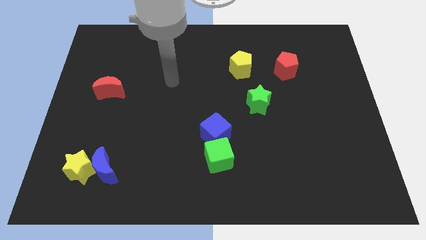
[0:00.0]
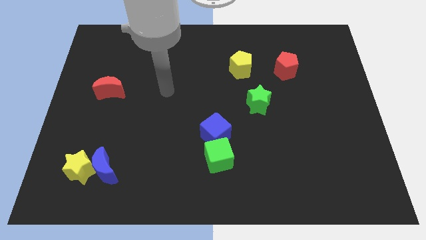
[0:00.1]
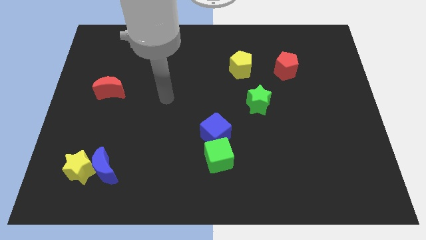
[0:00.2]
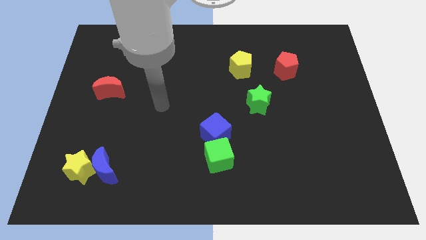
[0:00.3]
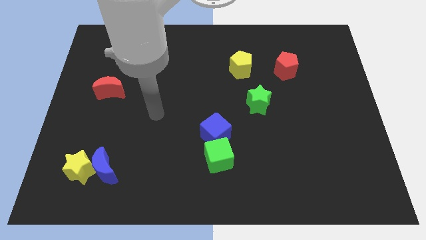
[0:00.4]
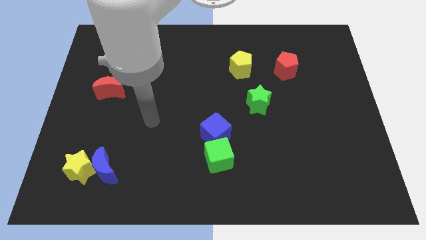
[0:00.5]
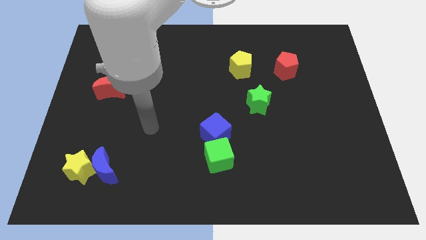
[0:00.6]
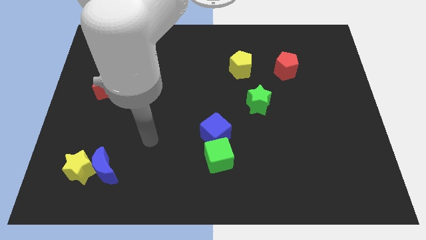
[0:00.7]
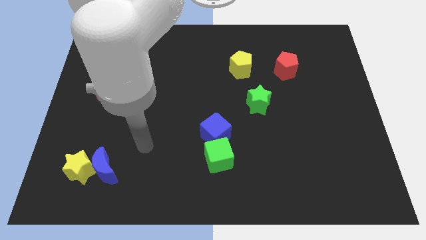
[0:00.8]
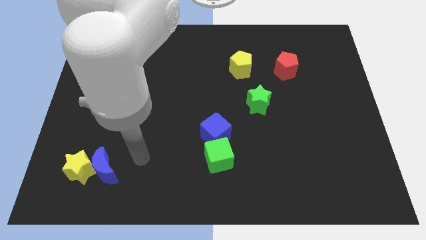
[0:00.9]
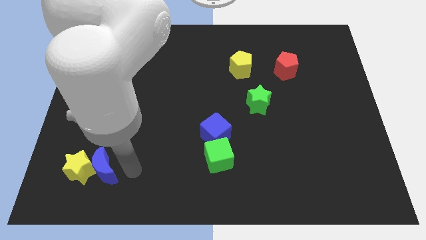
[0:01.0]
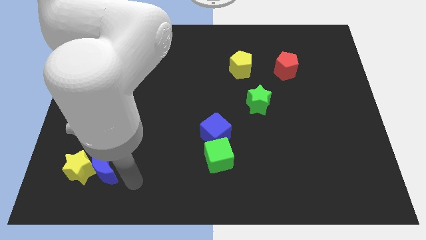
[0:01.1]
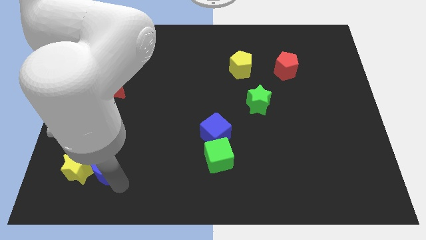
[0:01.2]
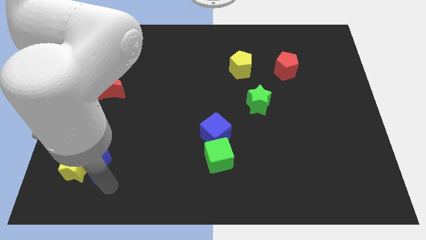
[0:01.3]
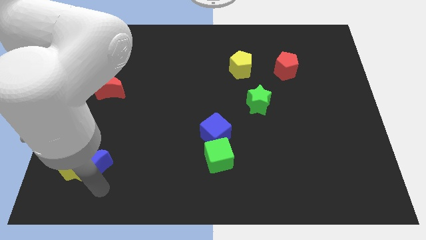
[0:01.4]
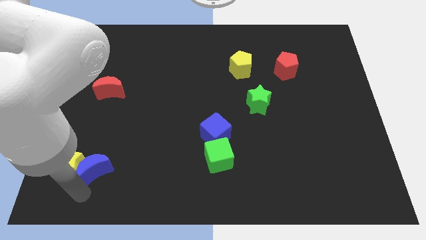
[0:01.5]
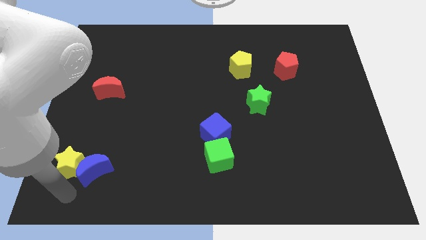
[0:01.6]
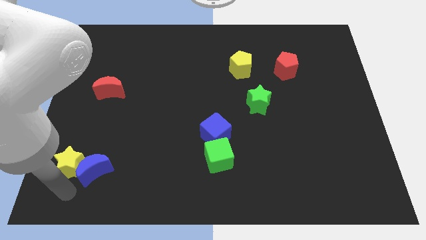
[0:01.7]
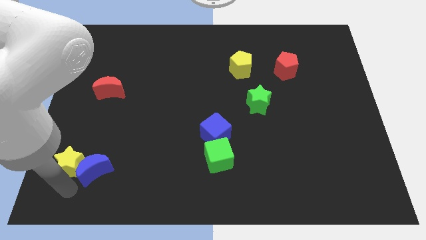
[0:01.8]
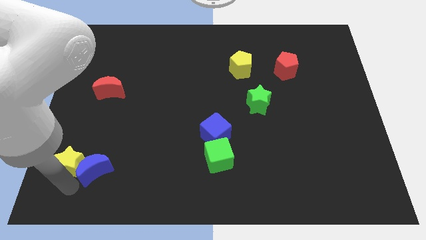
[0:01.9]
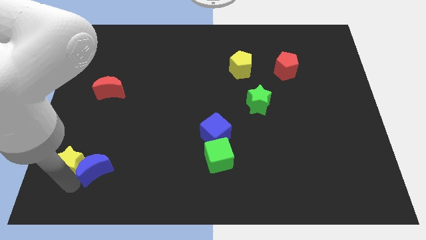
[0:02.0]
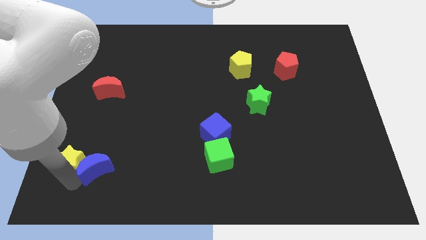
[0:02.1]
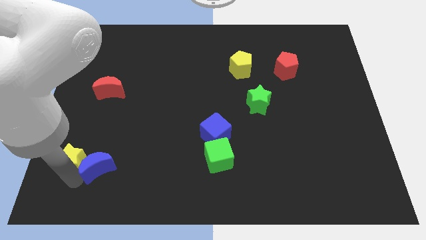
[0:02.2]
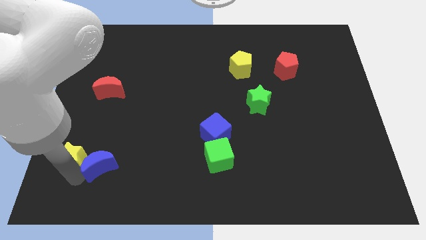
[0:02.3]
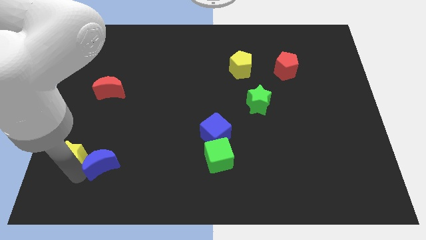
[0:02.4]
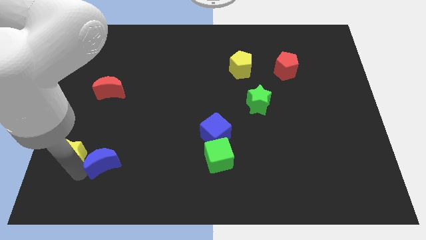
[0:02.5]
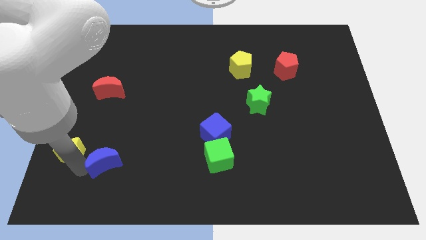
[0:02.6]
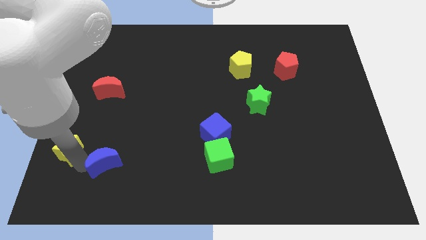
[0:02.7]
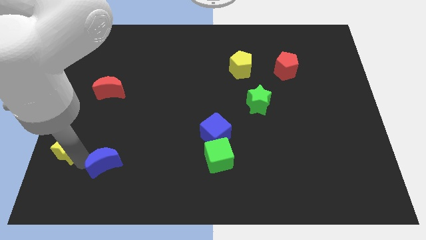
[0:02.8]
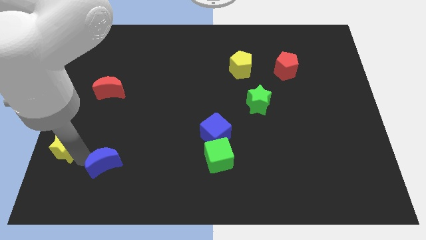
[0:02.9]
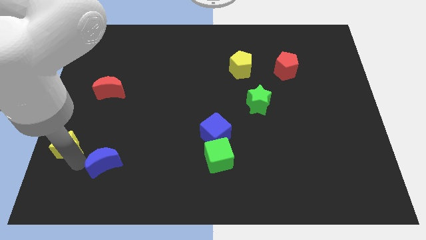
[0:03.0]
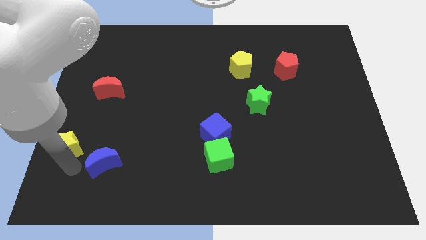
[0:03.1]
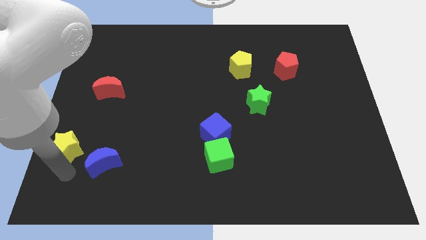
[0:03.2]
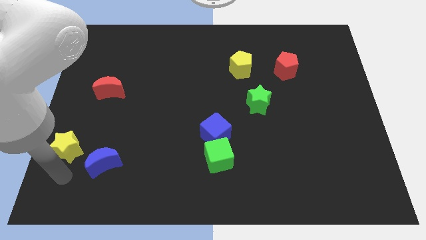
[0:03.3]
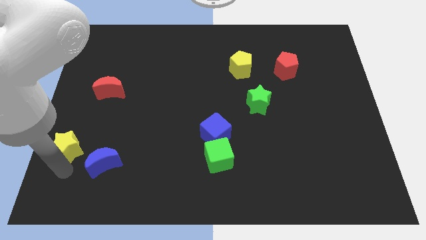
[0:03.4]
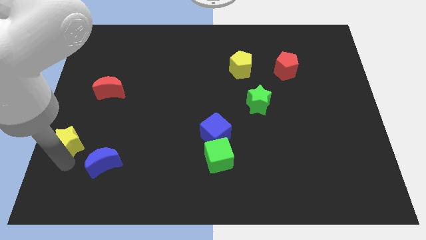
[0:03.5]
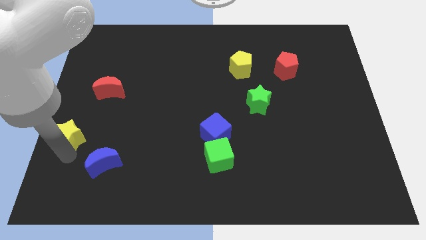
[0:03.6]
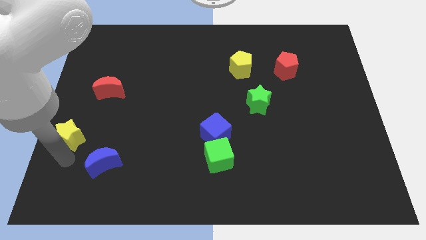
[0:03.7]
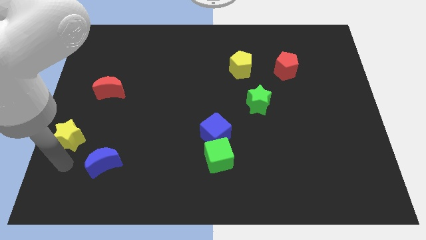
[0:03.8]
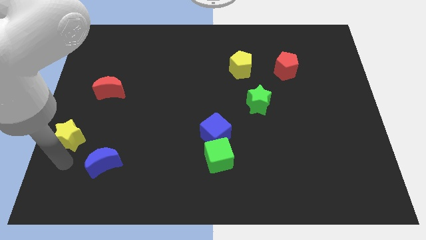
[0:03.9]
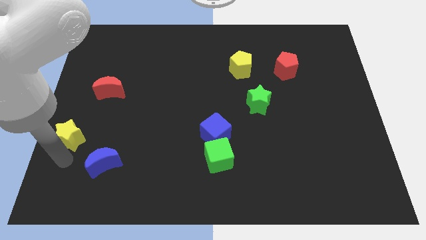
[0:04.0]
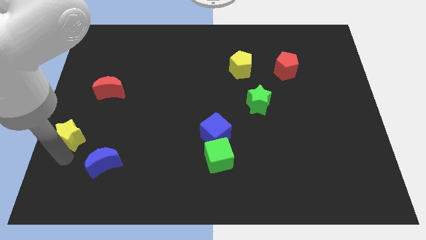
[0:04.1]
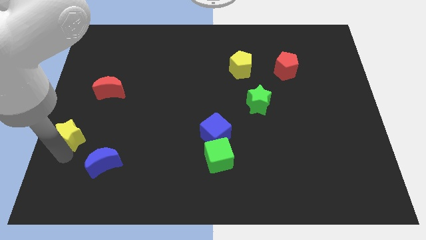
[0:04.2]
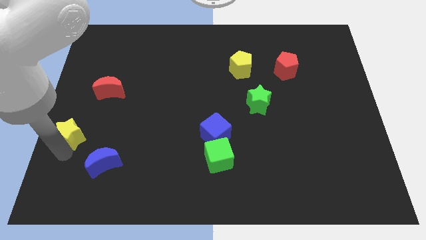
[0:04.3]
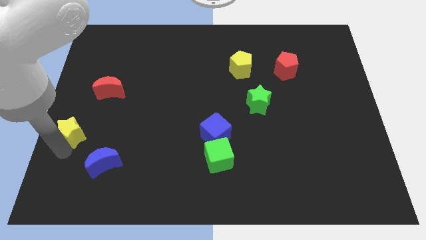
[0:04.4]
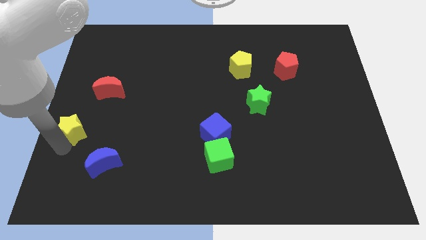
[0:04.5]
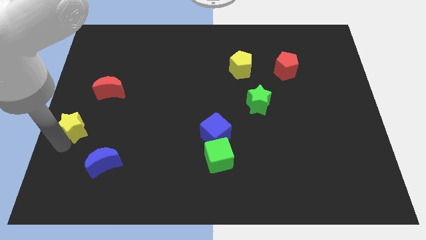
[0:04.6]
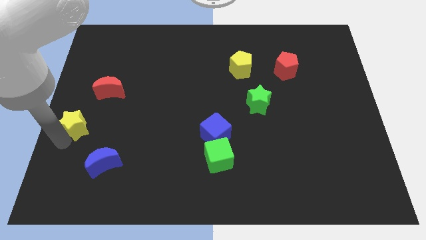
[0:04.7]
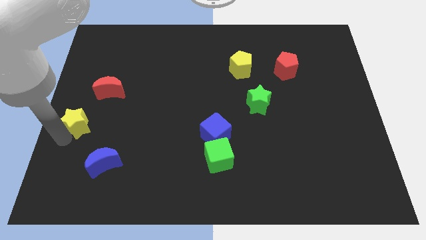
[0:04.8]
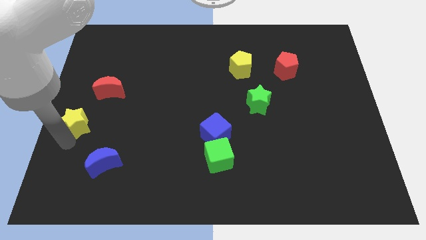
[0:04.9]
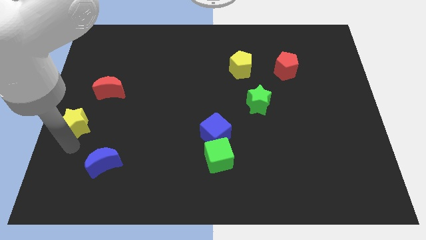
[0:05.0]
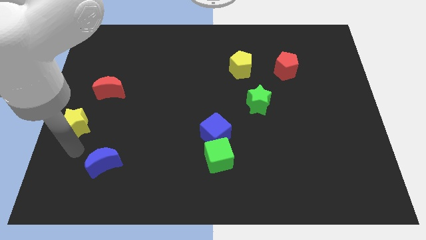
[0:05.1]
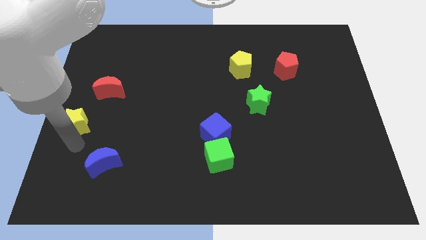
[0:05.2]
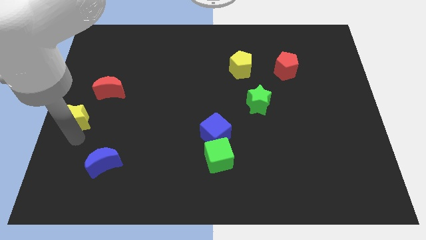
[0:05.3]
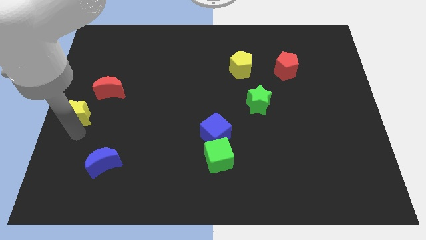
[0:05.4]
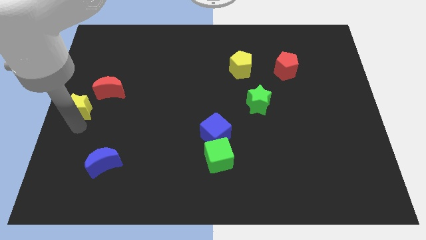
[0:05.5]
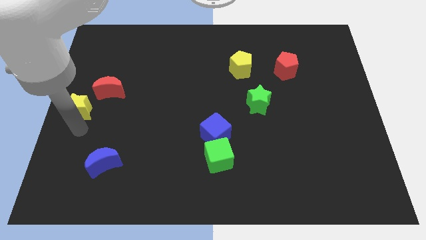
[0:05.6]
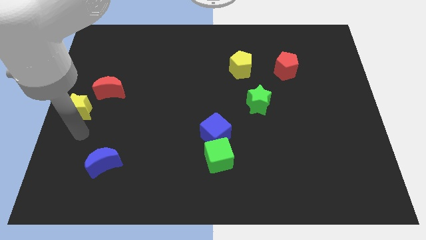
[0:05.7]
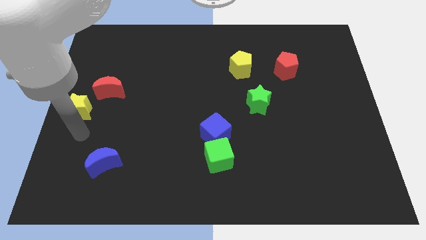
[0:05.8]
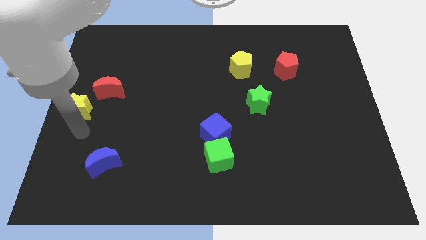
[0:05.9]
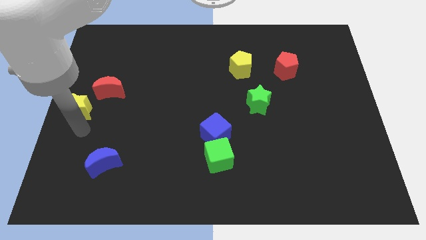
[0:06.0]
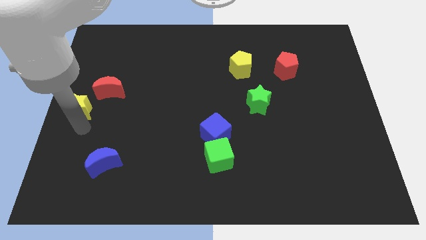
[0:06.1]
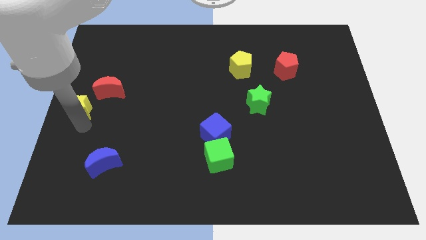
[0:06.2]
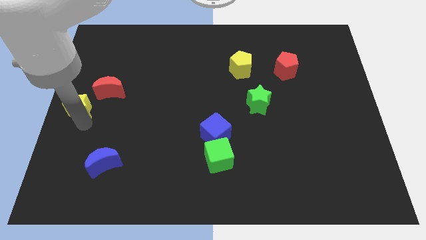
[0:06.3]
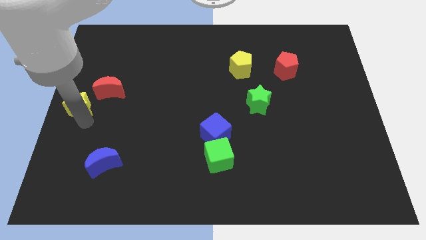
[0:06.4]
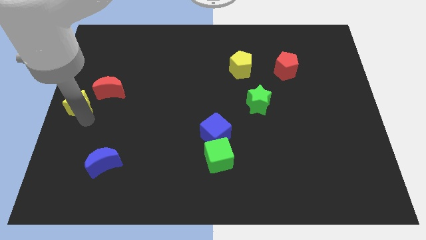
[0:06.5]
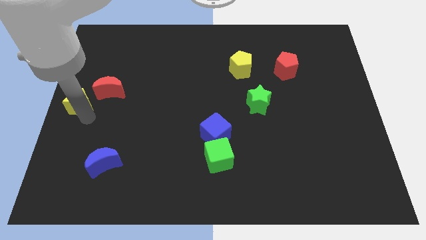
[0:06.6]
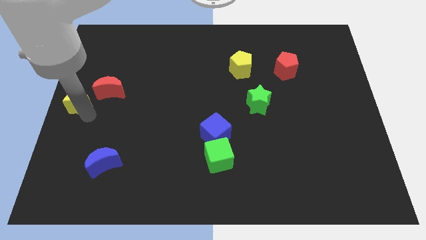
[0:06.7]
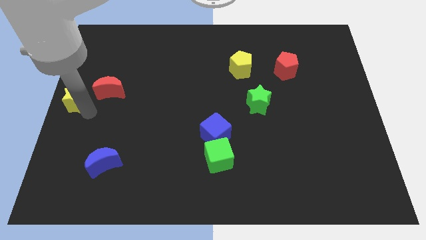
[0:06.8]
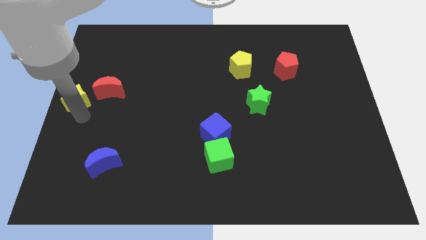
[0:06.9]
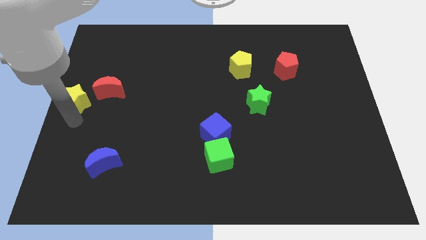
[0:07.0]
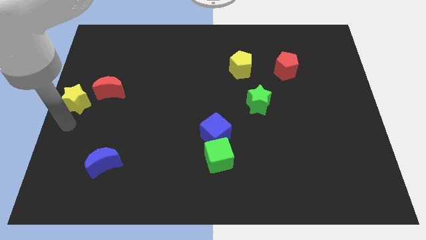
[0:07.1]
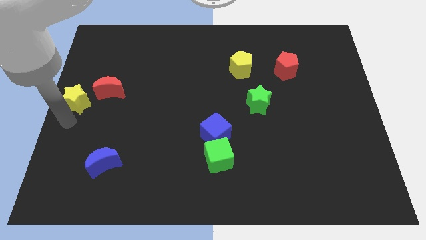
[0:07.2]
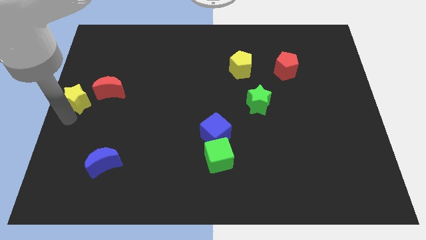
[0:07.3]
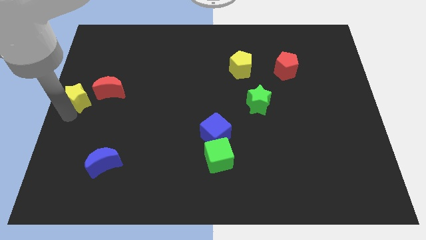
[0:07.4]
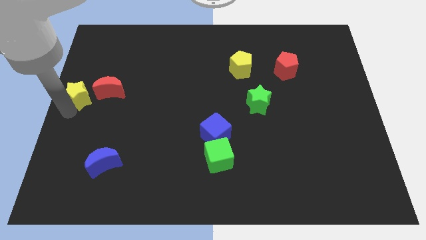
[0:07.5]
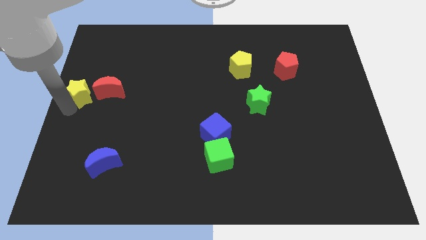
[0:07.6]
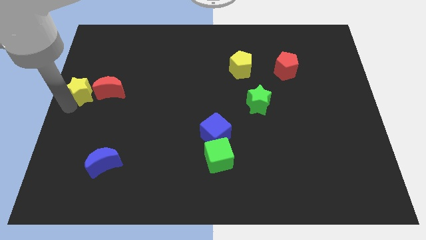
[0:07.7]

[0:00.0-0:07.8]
push the yellow star up
